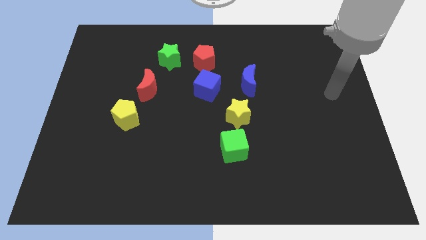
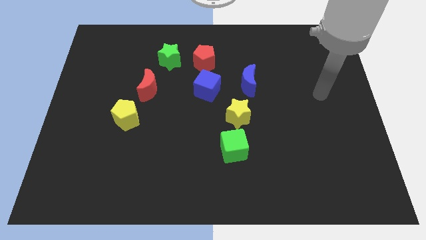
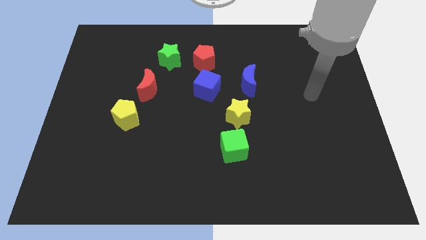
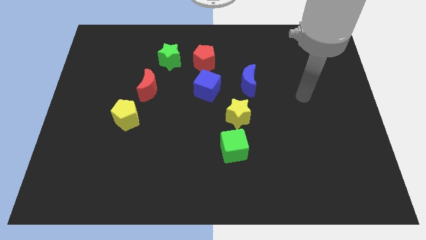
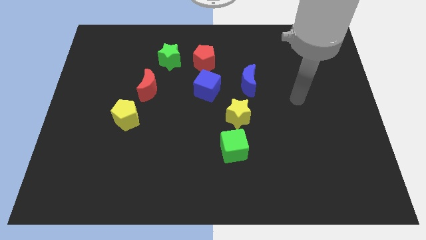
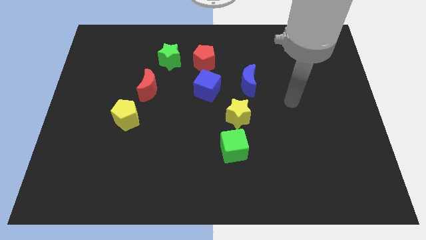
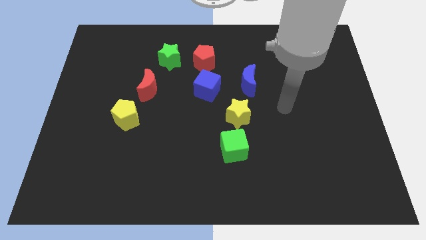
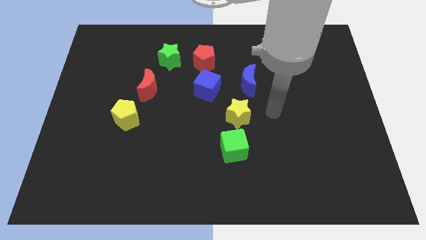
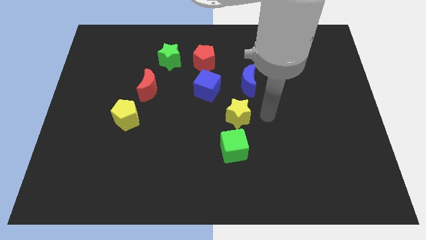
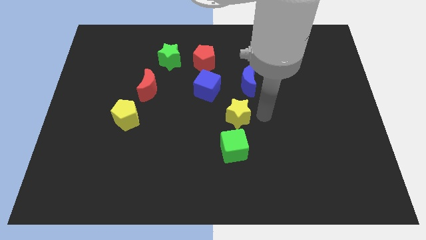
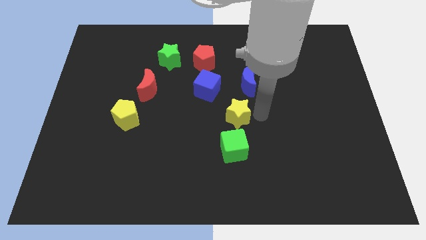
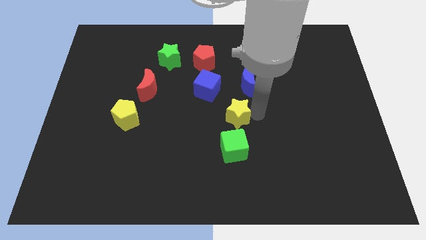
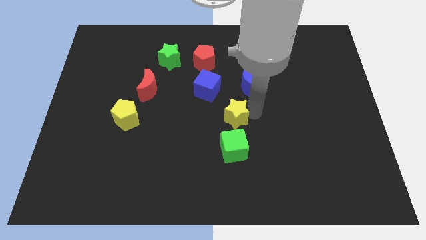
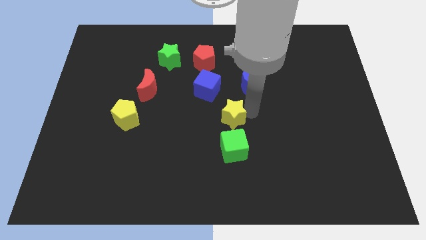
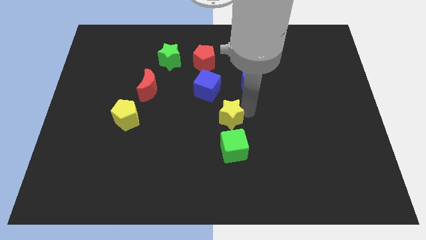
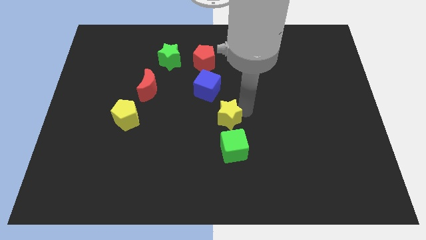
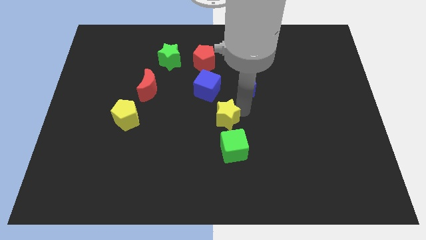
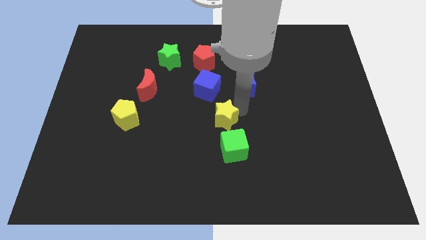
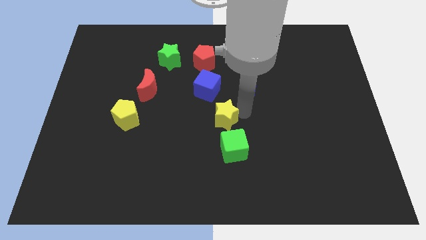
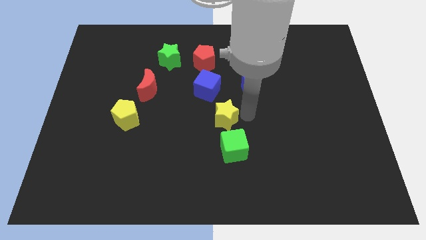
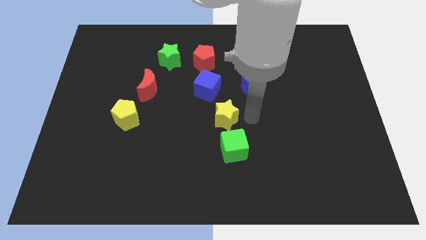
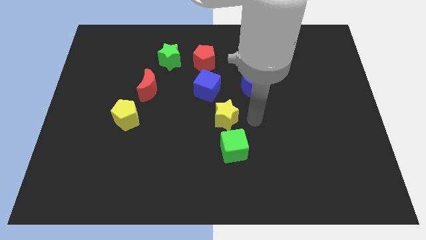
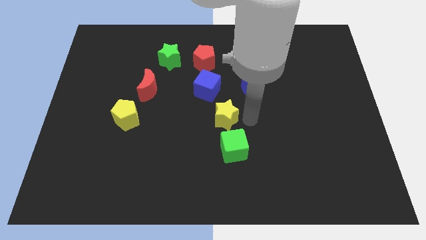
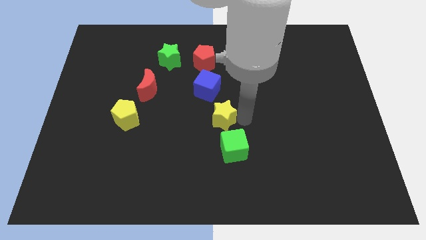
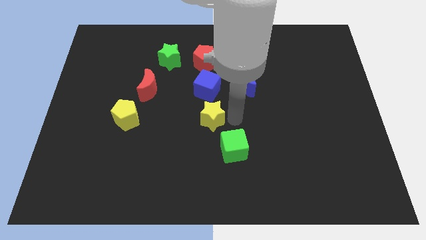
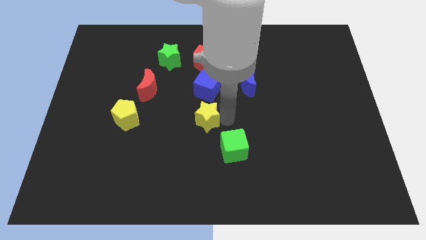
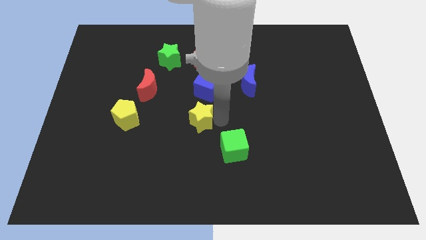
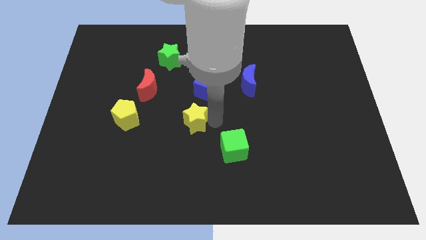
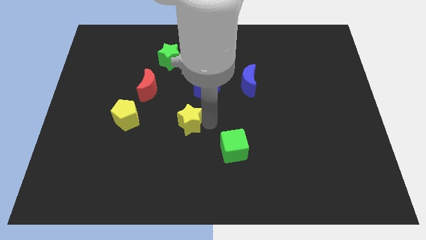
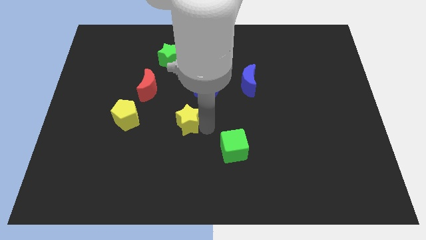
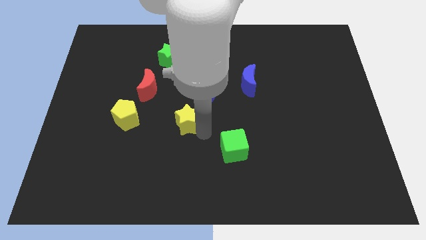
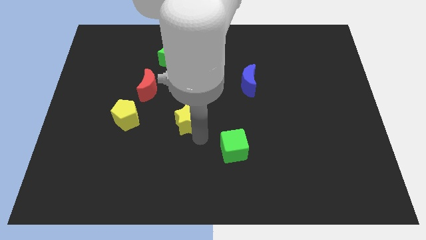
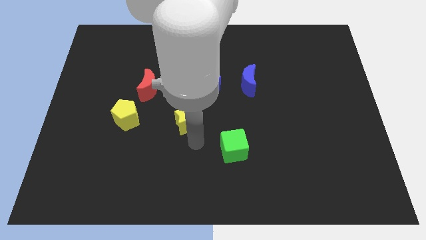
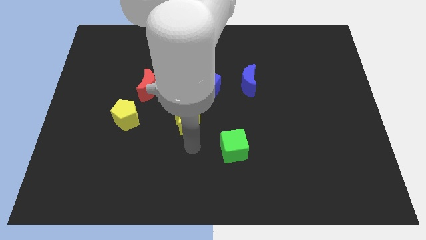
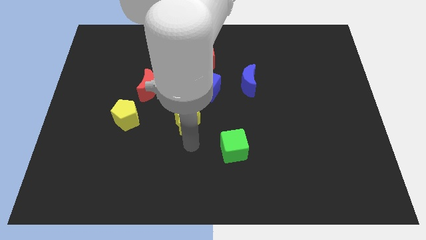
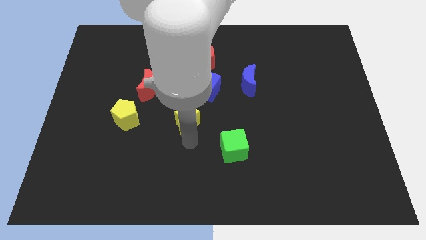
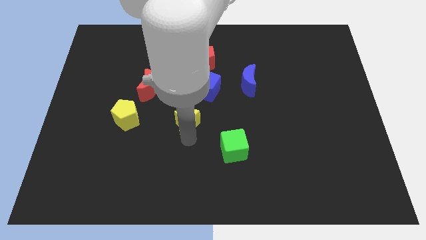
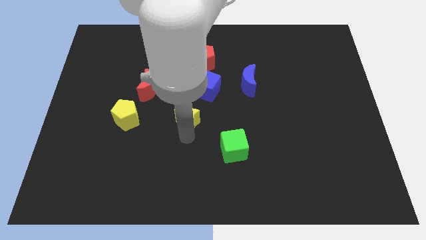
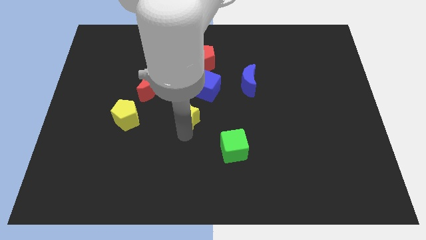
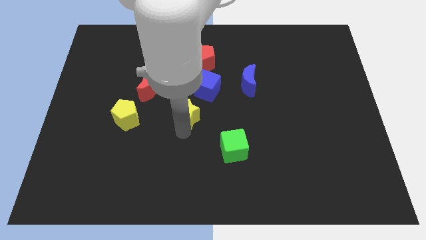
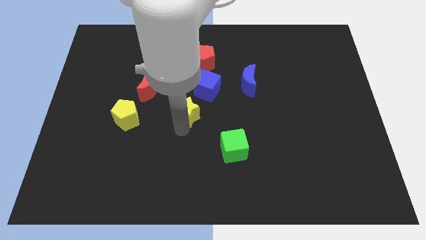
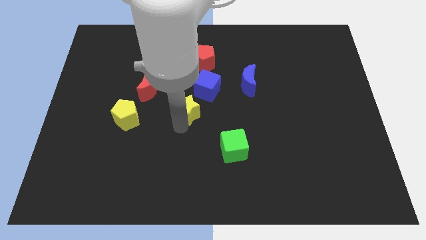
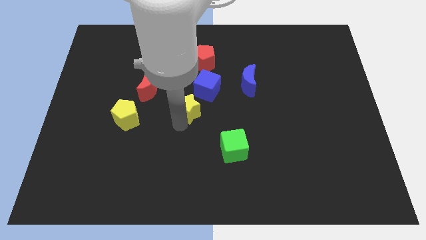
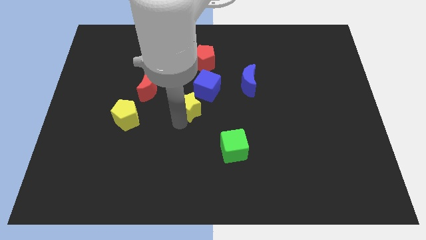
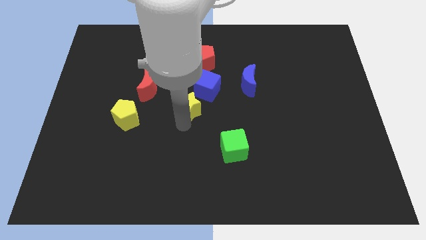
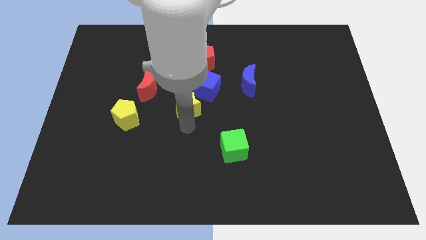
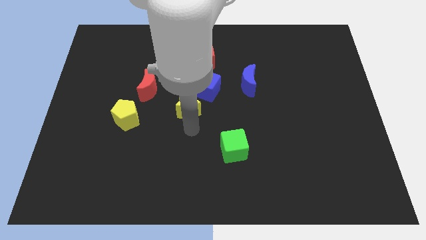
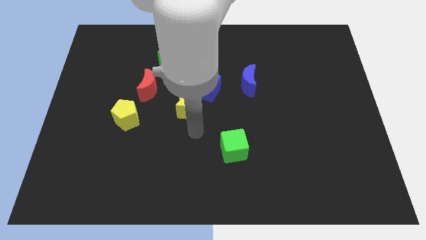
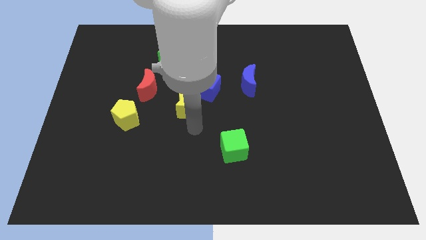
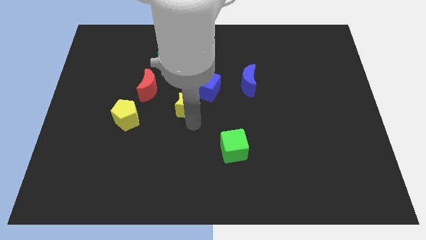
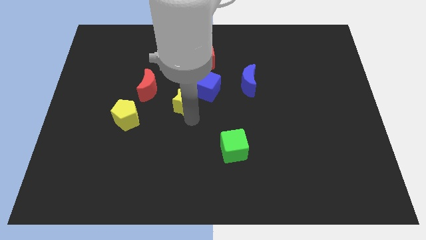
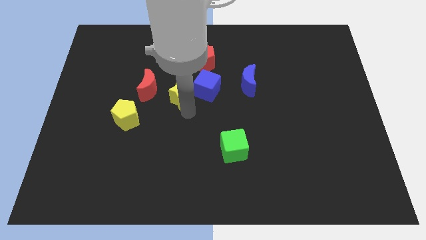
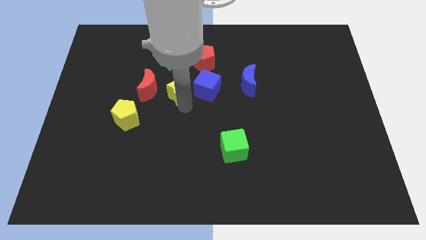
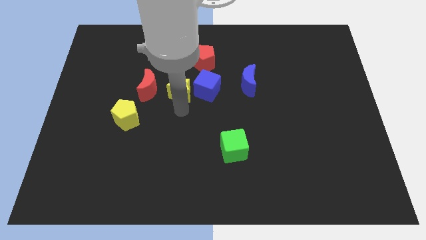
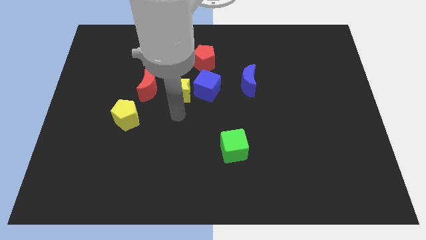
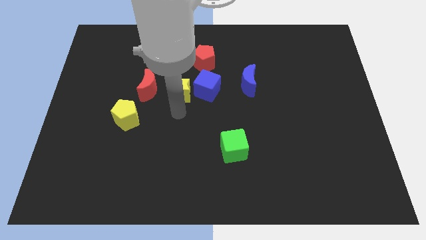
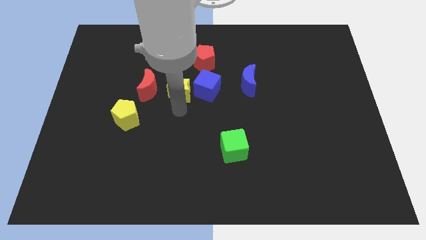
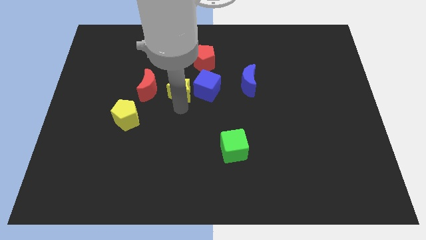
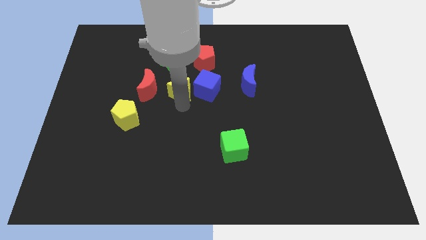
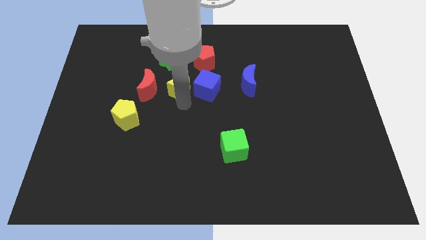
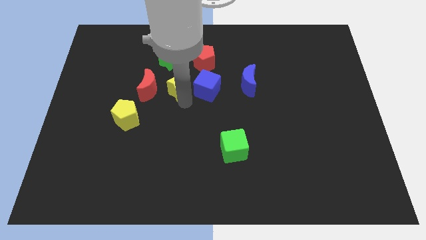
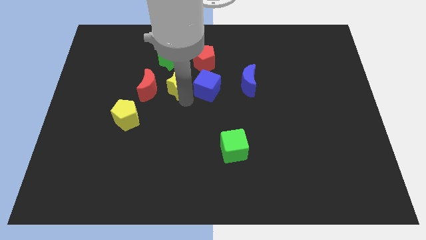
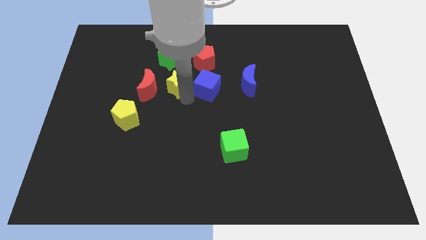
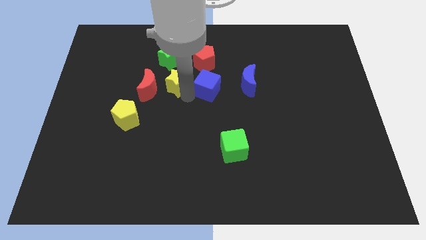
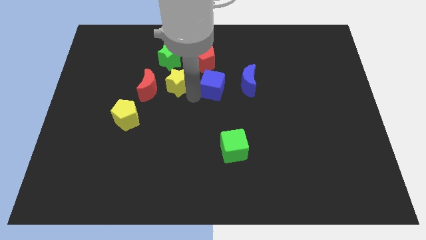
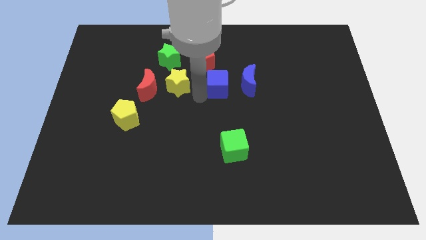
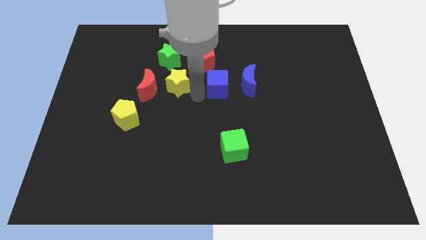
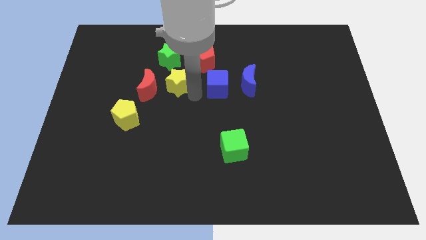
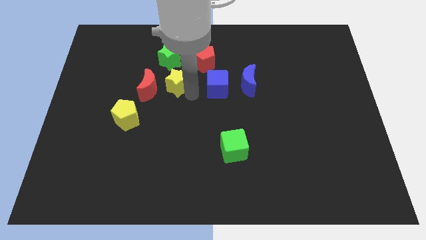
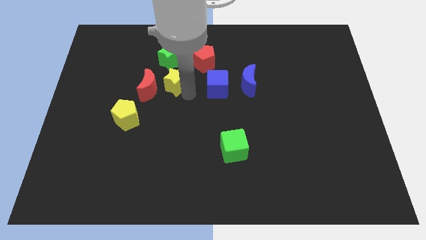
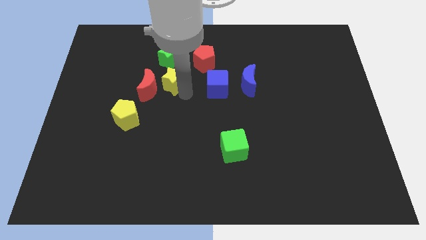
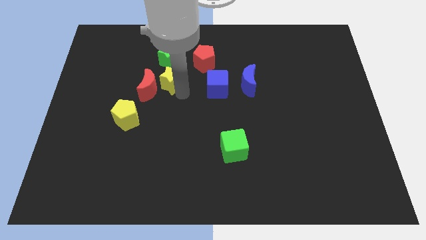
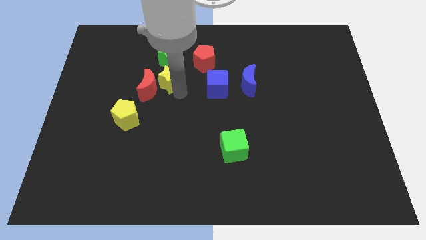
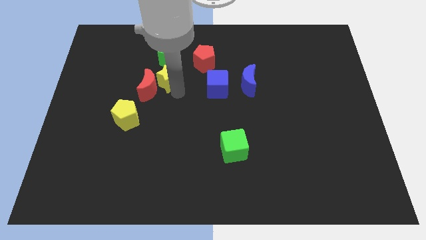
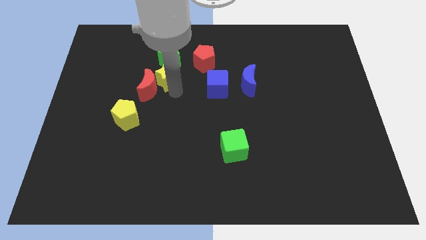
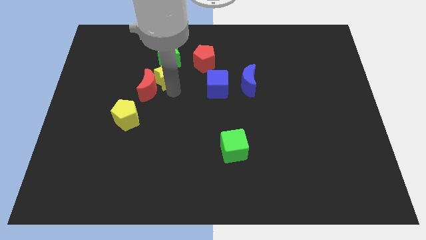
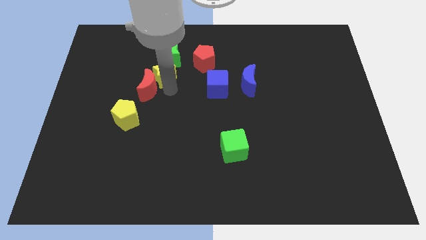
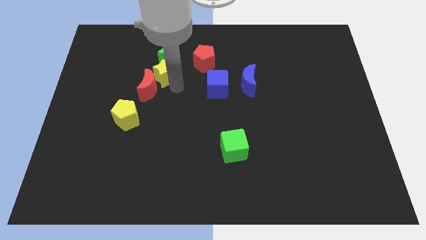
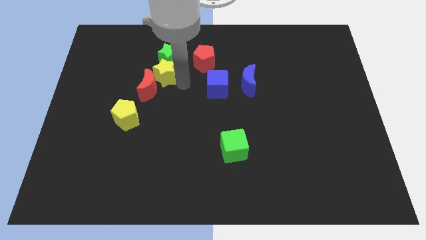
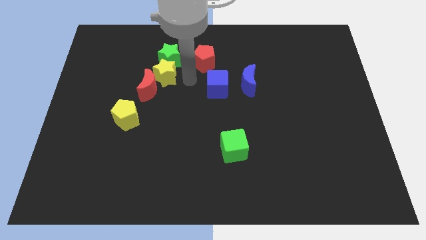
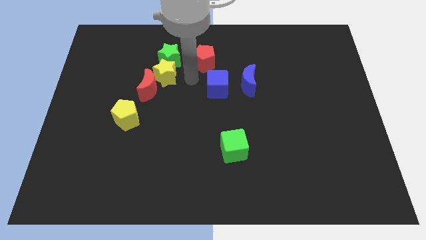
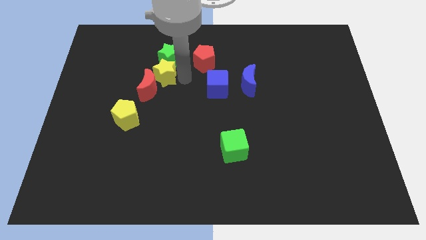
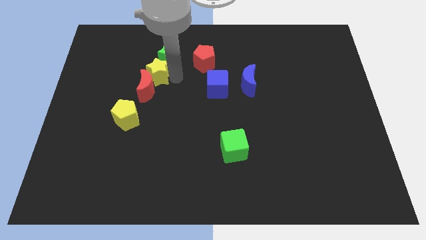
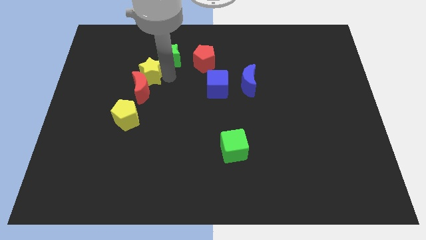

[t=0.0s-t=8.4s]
slide the yellow star to the top left of the red moon
